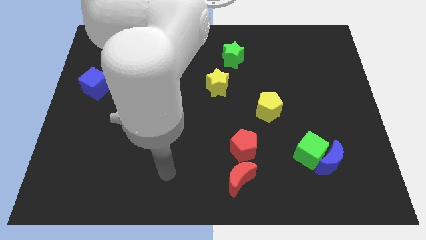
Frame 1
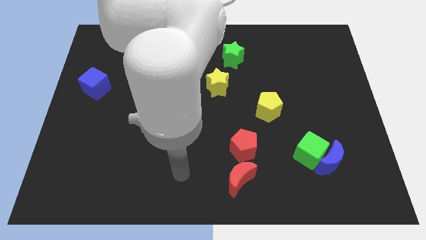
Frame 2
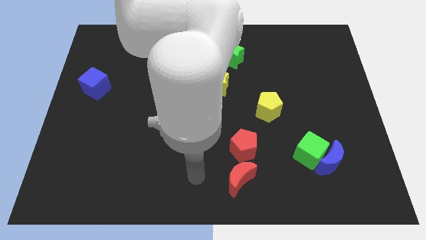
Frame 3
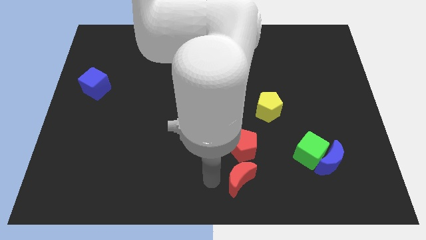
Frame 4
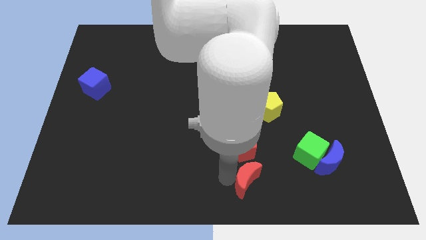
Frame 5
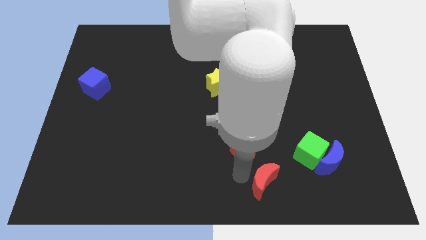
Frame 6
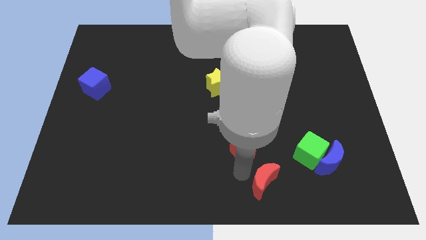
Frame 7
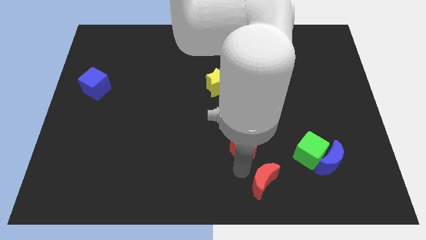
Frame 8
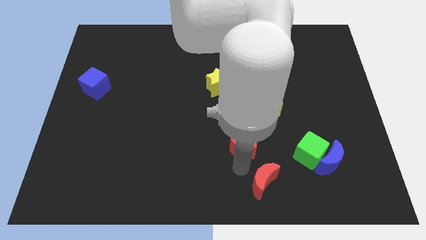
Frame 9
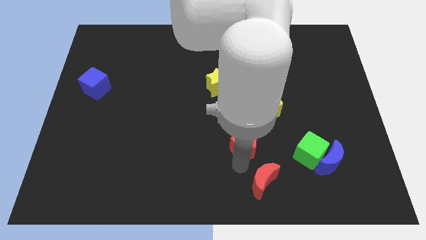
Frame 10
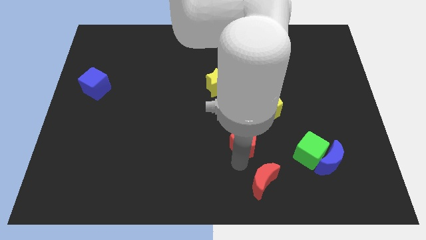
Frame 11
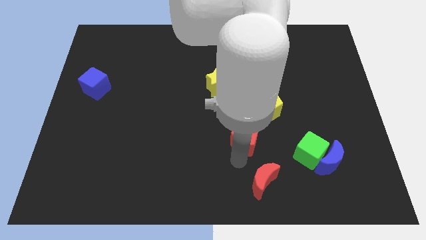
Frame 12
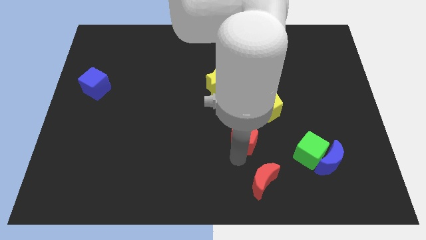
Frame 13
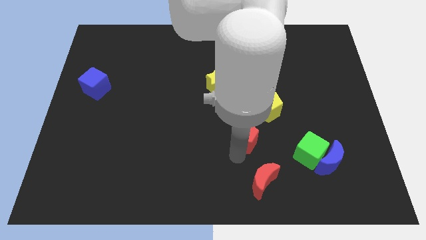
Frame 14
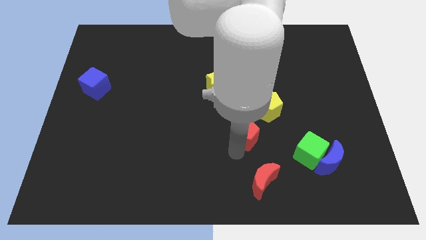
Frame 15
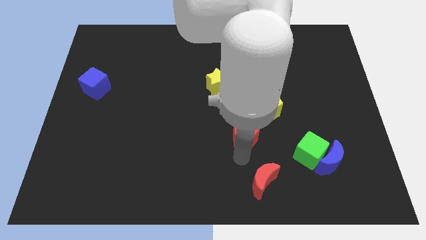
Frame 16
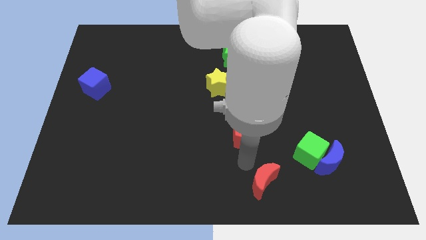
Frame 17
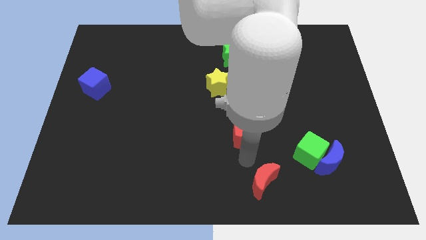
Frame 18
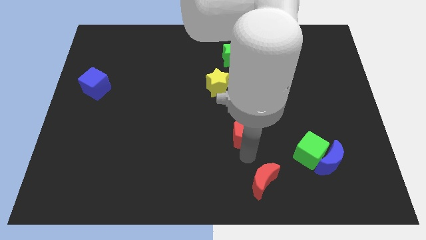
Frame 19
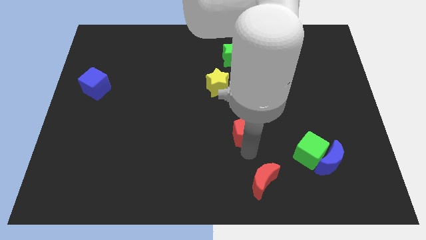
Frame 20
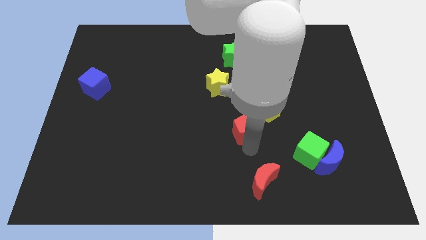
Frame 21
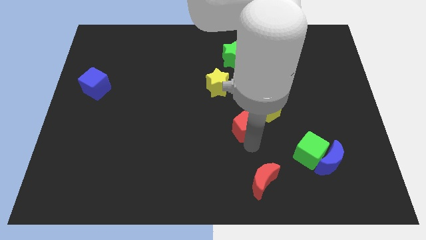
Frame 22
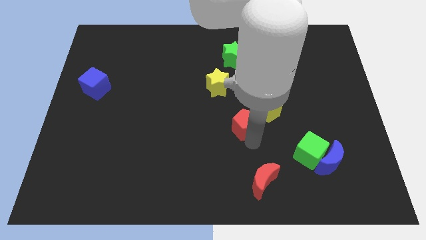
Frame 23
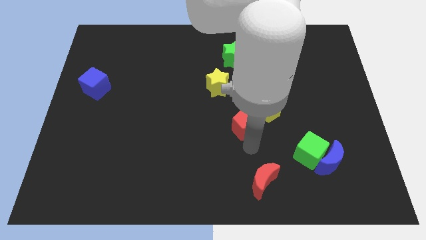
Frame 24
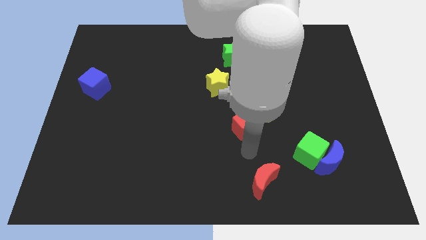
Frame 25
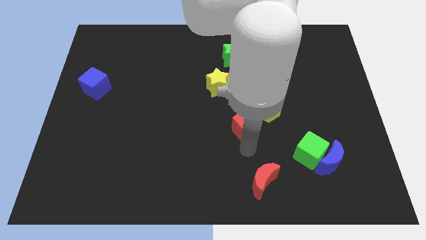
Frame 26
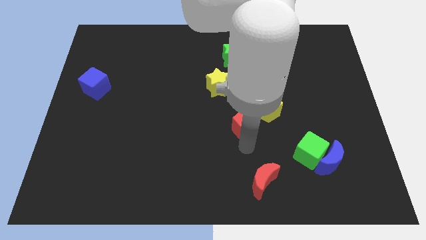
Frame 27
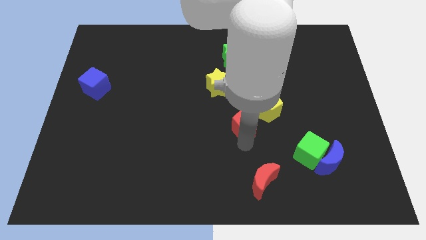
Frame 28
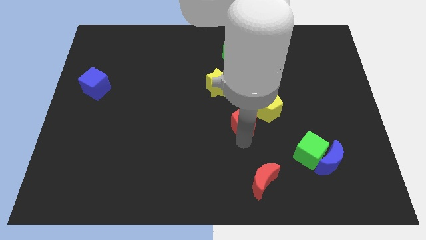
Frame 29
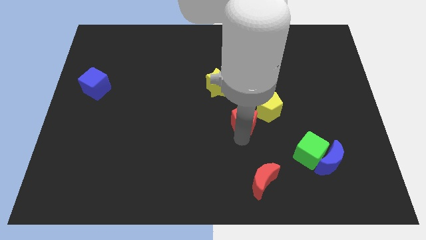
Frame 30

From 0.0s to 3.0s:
slightly move the red pentagon upwards

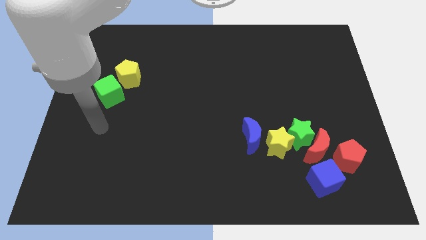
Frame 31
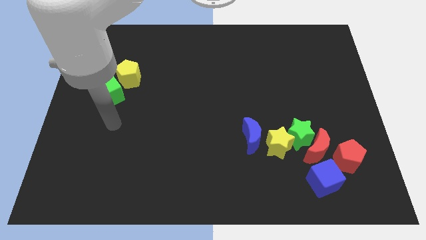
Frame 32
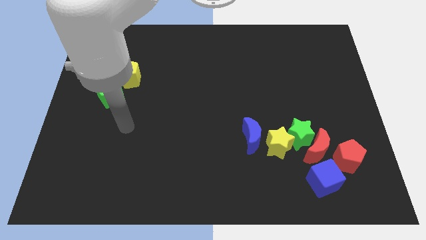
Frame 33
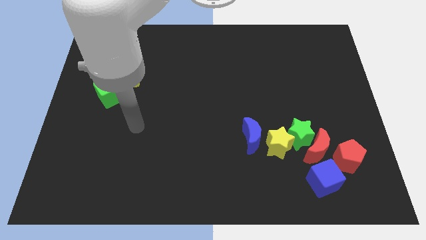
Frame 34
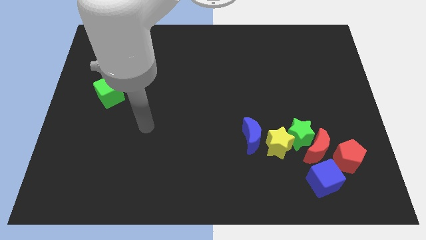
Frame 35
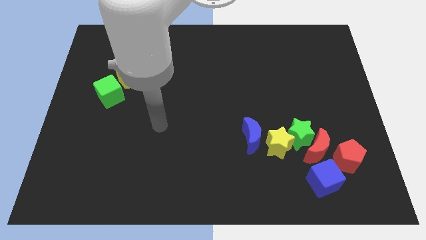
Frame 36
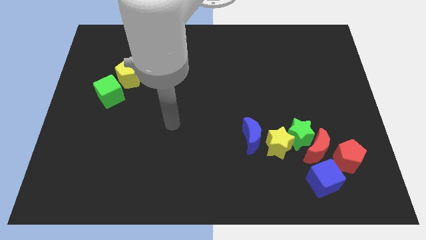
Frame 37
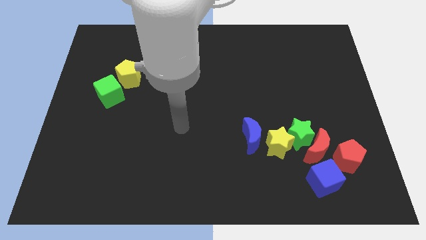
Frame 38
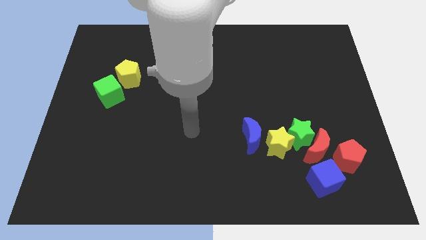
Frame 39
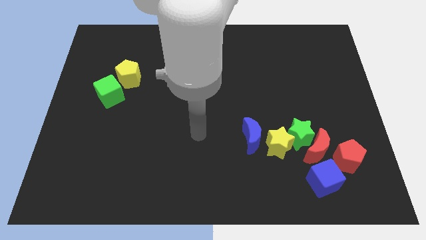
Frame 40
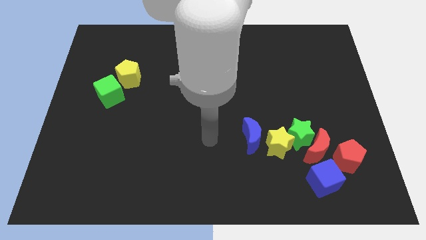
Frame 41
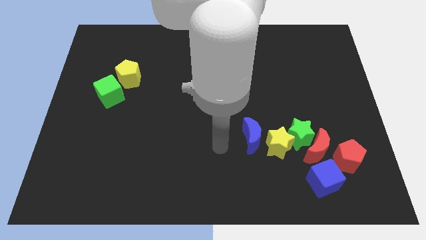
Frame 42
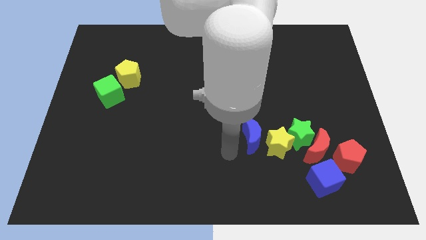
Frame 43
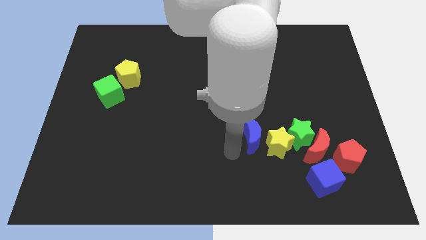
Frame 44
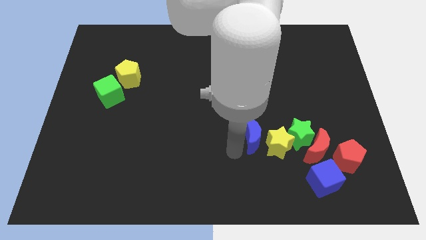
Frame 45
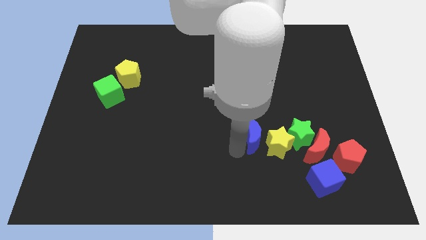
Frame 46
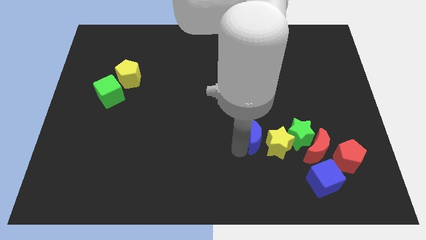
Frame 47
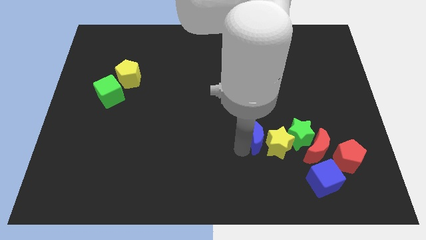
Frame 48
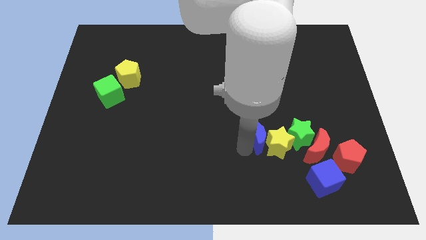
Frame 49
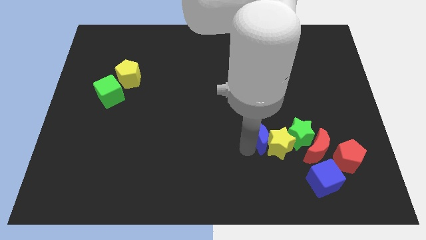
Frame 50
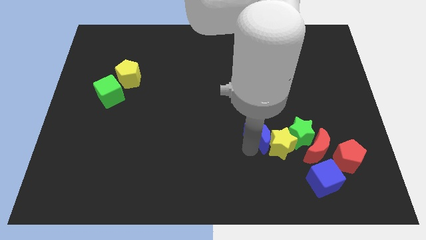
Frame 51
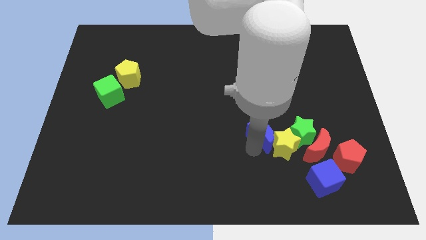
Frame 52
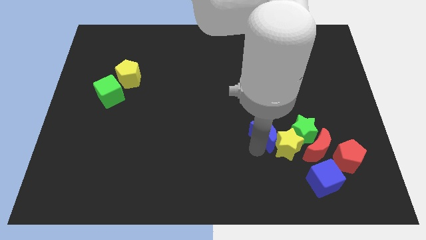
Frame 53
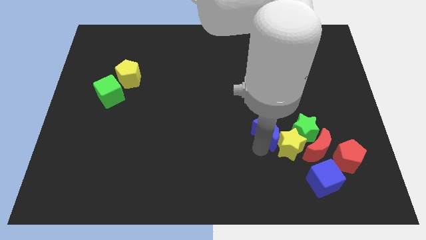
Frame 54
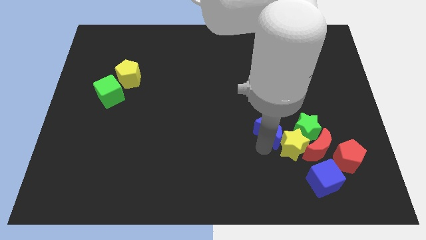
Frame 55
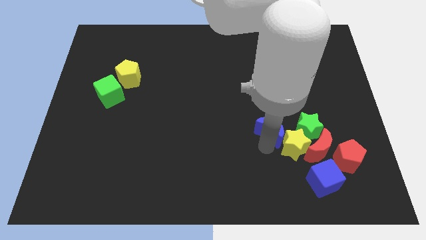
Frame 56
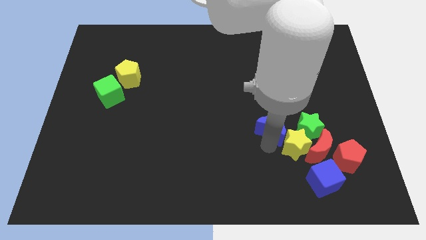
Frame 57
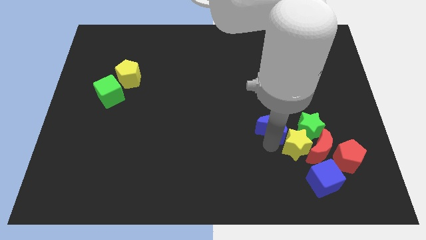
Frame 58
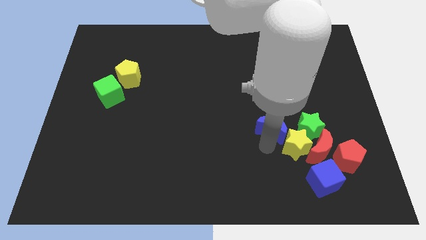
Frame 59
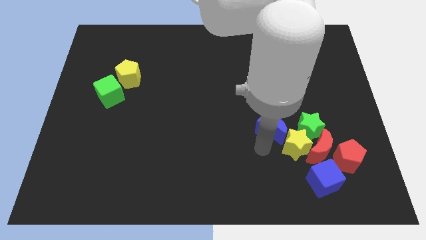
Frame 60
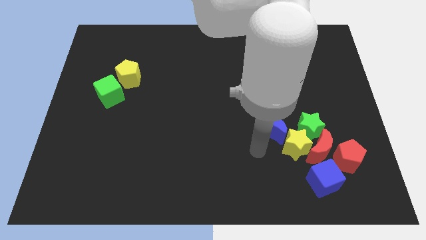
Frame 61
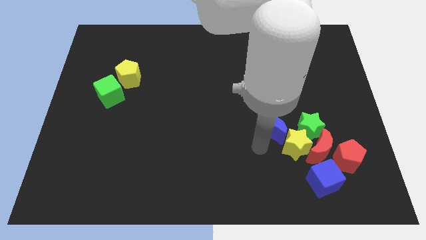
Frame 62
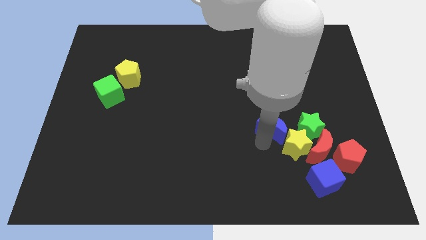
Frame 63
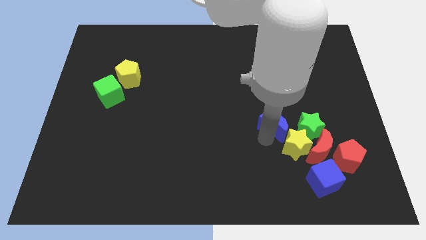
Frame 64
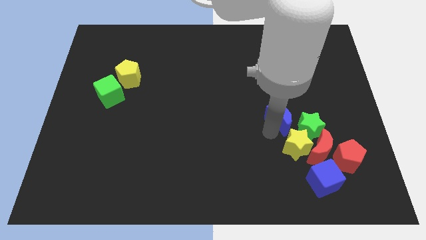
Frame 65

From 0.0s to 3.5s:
push the blue moon upwards and then right a bit

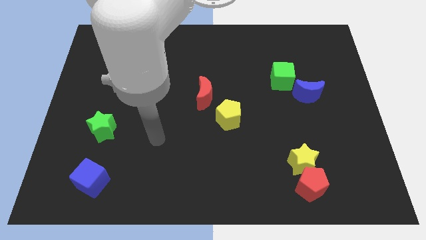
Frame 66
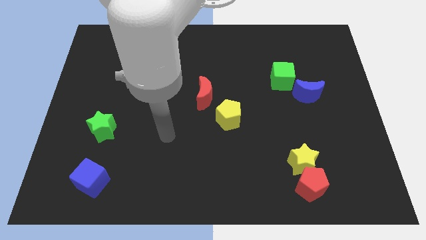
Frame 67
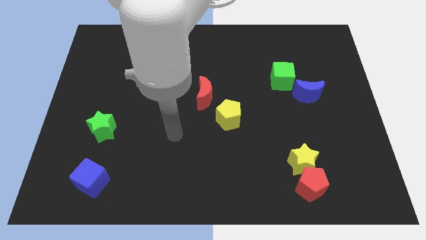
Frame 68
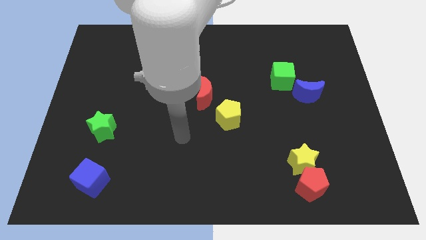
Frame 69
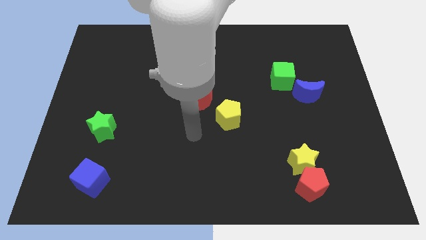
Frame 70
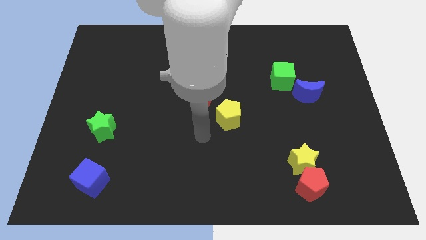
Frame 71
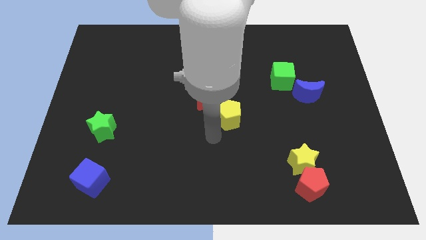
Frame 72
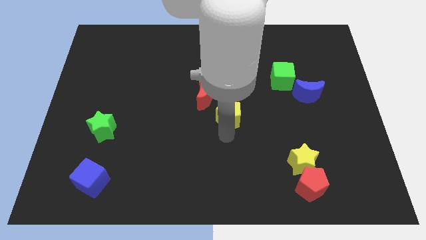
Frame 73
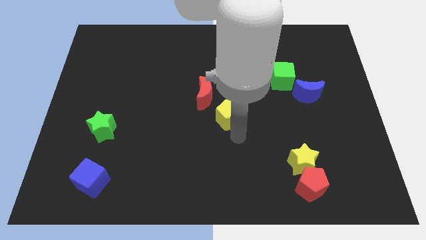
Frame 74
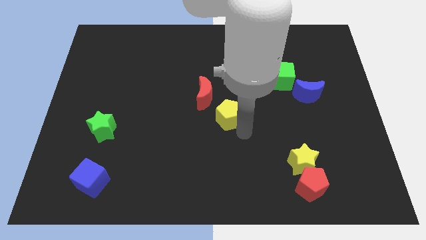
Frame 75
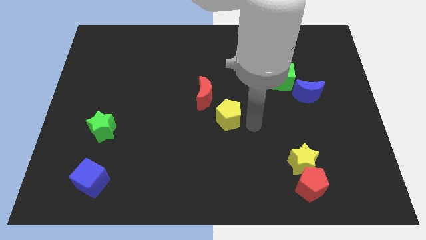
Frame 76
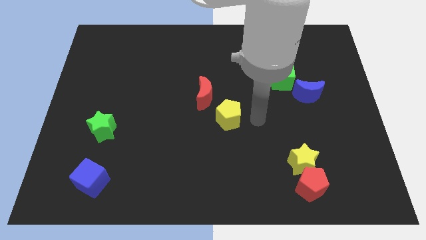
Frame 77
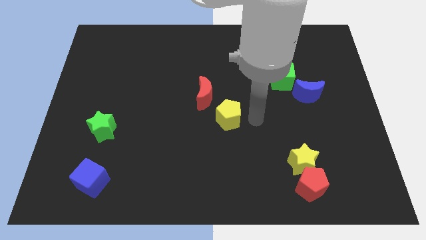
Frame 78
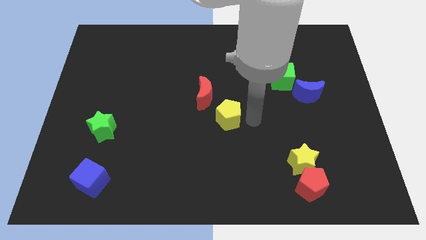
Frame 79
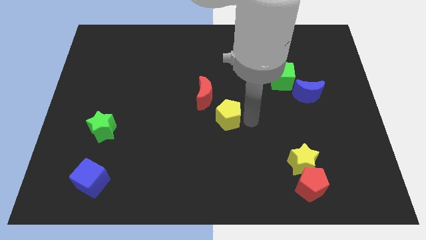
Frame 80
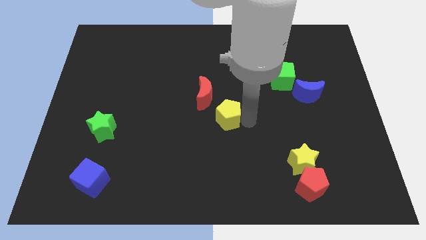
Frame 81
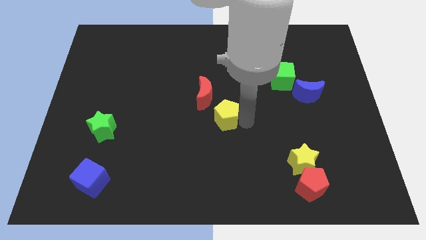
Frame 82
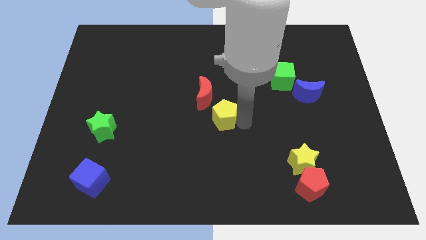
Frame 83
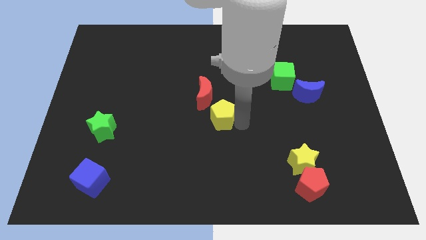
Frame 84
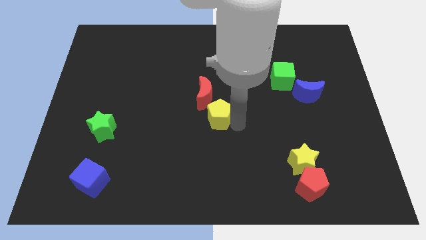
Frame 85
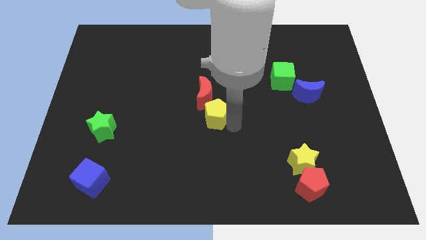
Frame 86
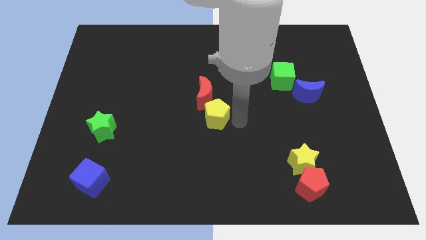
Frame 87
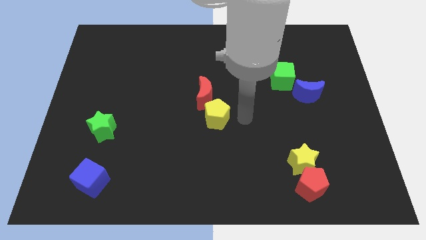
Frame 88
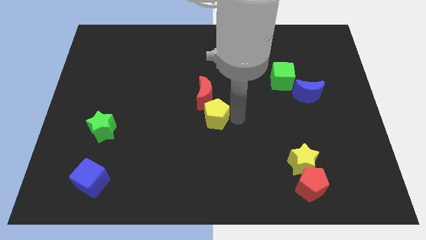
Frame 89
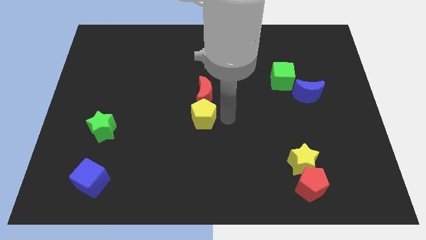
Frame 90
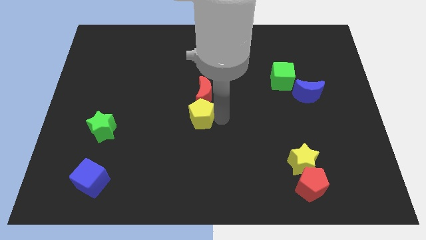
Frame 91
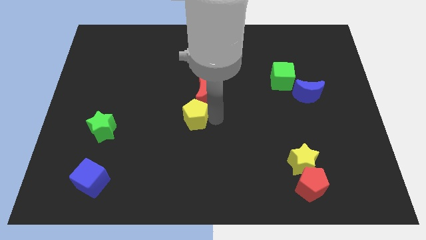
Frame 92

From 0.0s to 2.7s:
slightly slide the yellow pentagon to the left
